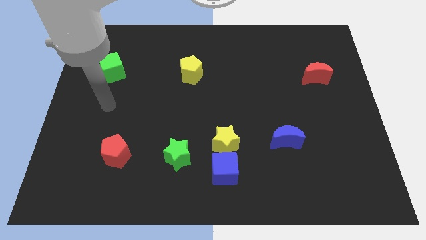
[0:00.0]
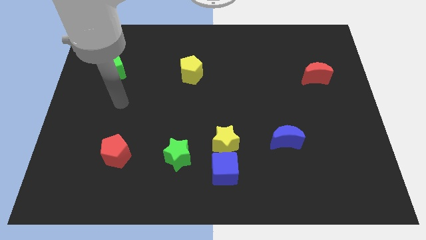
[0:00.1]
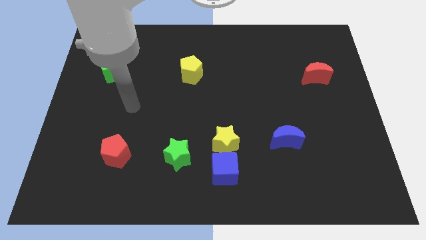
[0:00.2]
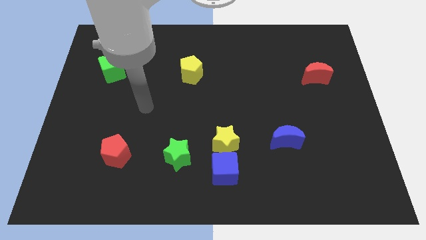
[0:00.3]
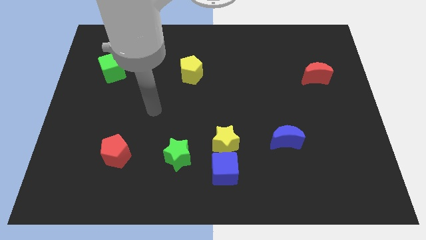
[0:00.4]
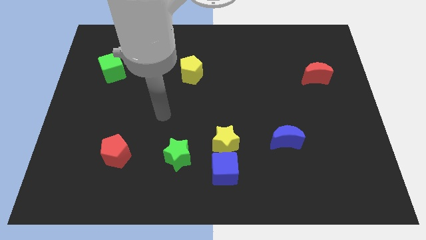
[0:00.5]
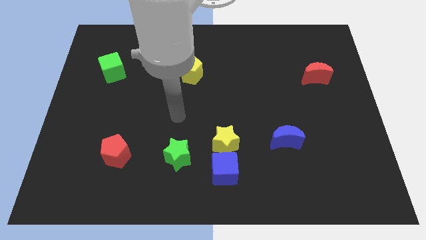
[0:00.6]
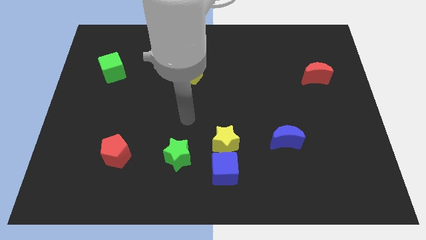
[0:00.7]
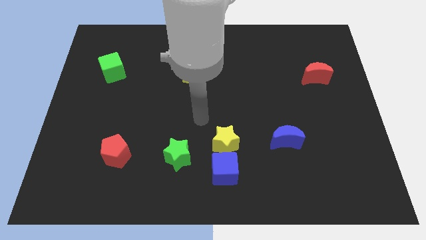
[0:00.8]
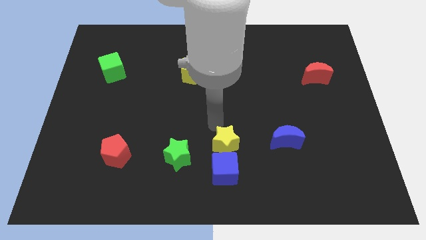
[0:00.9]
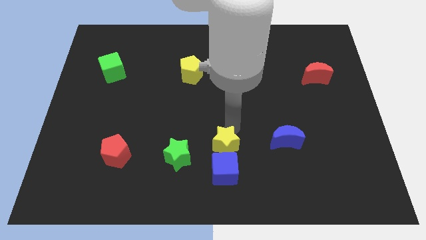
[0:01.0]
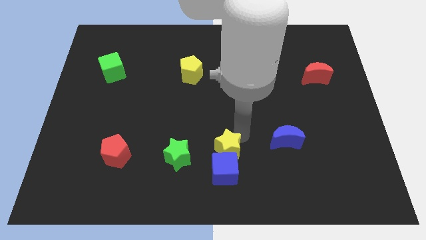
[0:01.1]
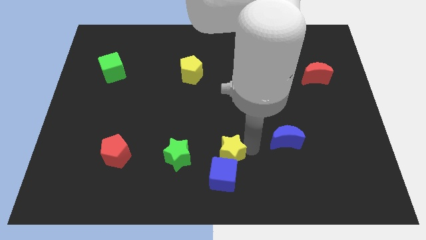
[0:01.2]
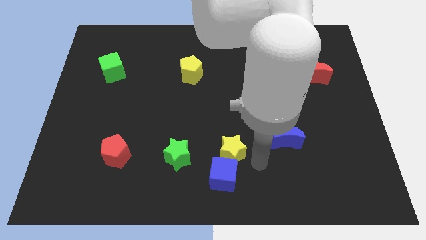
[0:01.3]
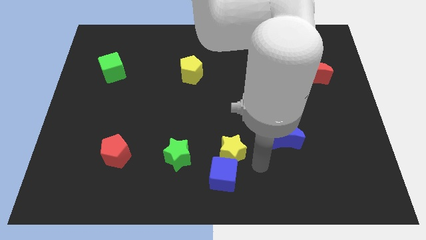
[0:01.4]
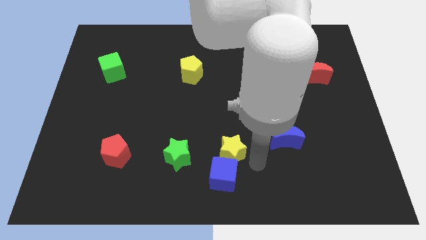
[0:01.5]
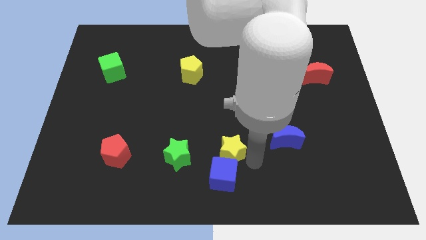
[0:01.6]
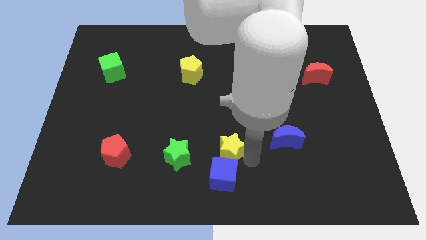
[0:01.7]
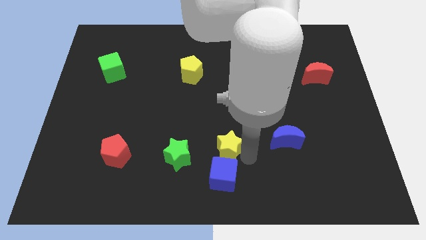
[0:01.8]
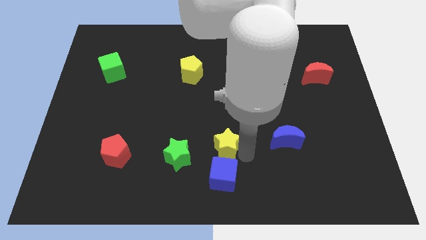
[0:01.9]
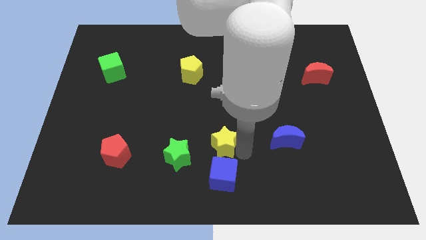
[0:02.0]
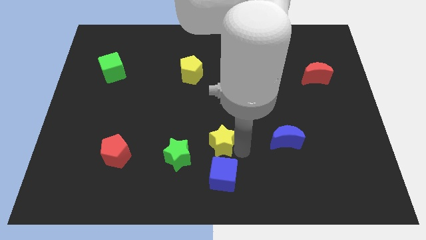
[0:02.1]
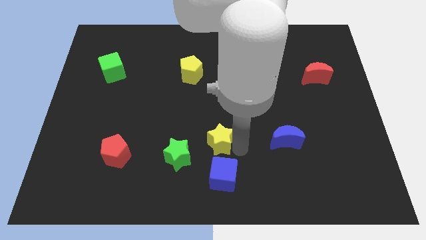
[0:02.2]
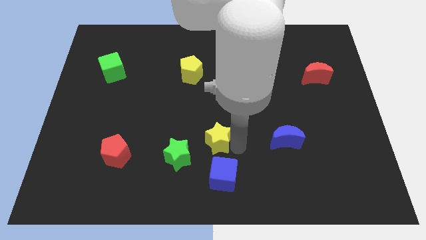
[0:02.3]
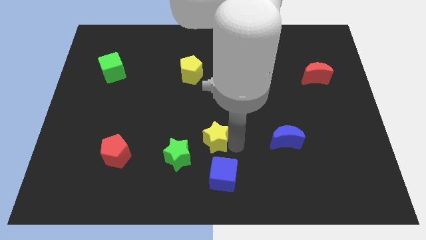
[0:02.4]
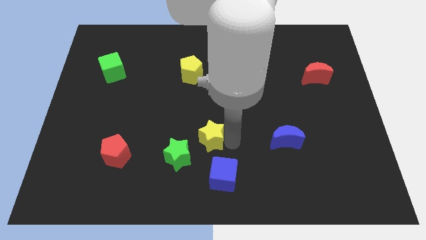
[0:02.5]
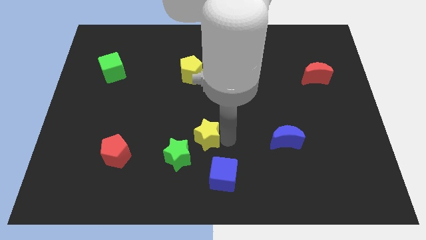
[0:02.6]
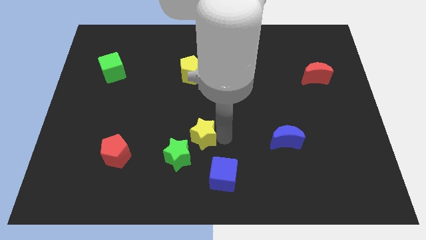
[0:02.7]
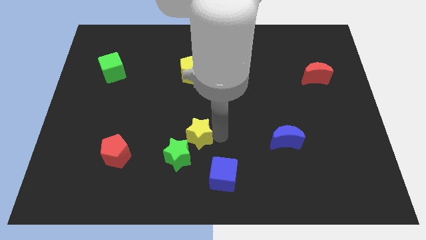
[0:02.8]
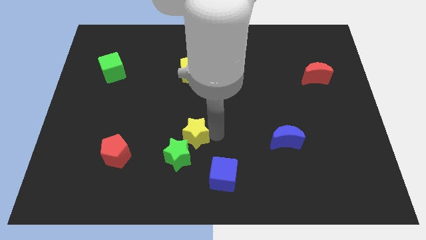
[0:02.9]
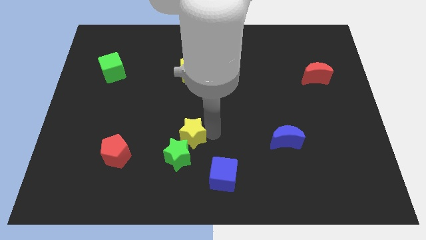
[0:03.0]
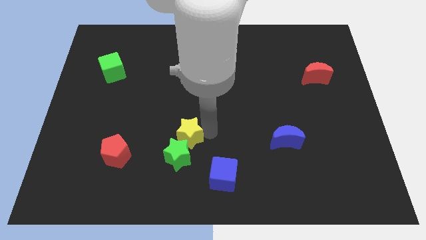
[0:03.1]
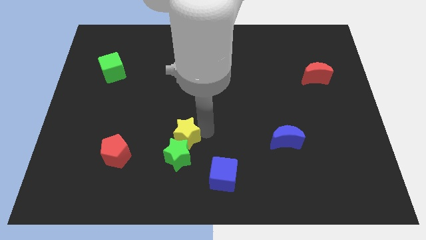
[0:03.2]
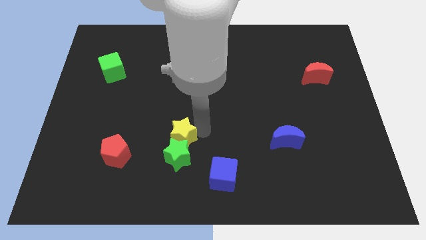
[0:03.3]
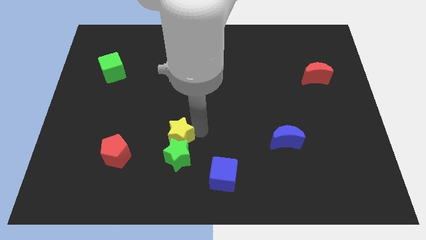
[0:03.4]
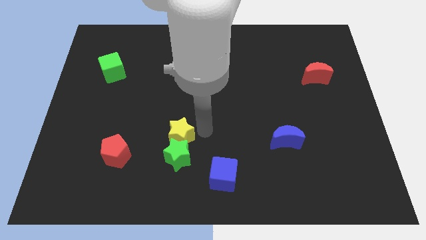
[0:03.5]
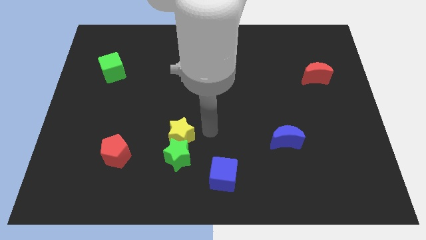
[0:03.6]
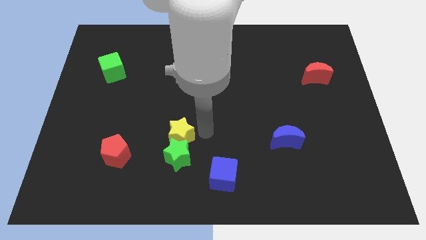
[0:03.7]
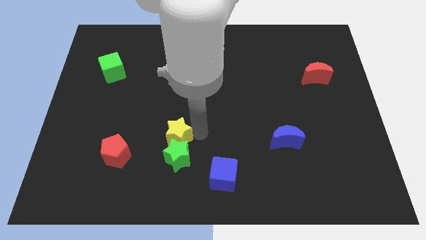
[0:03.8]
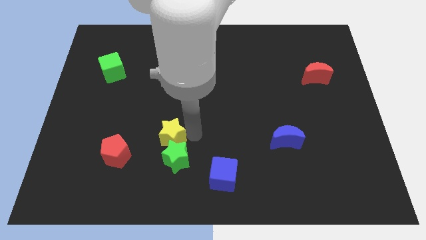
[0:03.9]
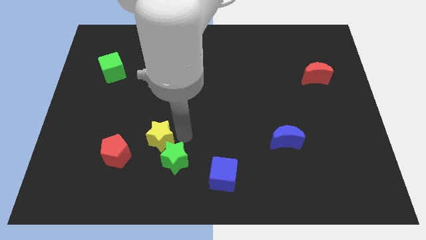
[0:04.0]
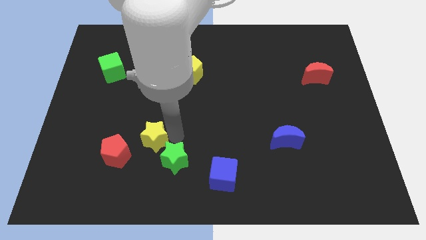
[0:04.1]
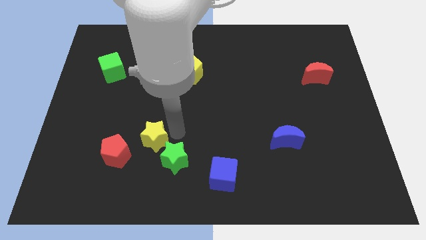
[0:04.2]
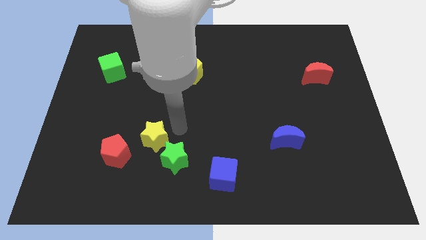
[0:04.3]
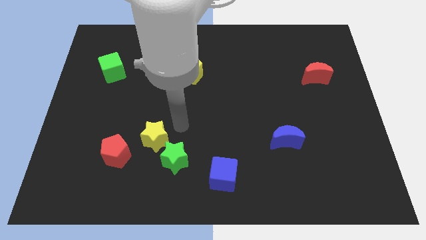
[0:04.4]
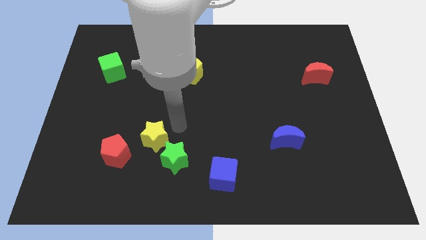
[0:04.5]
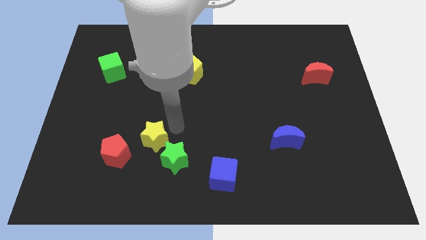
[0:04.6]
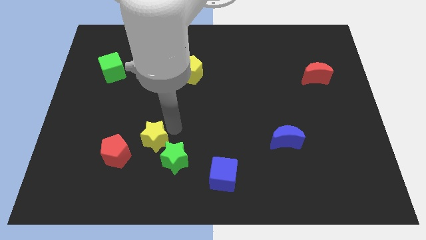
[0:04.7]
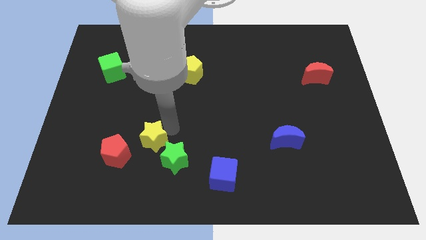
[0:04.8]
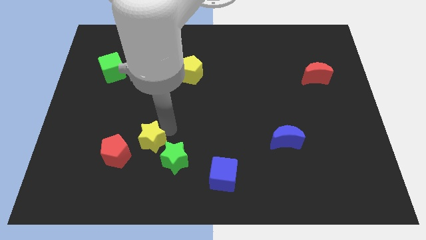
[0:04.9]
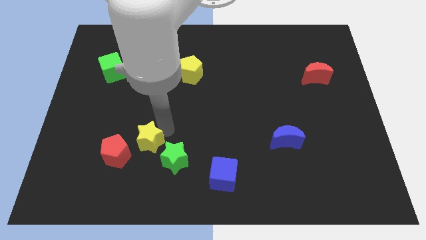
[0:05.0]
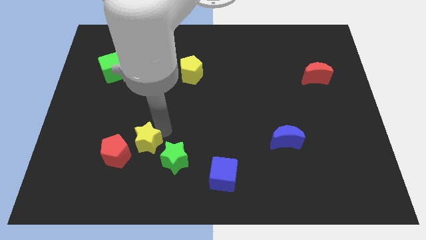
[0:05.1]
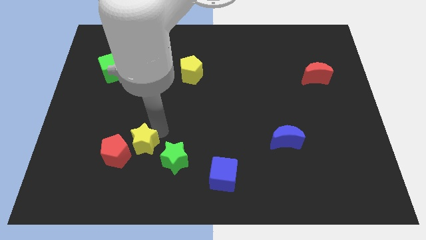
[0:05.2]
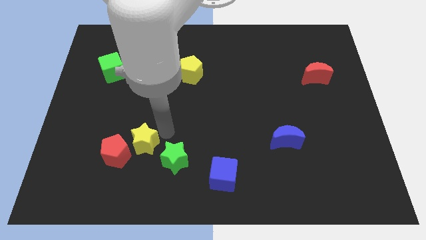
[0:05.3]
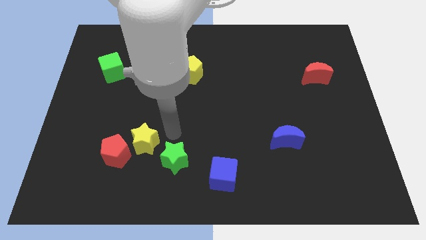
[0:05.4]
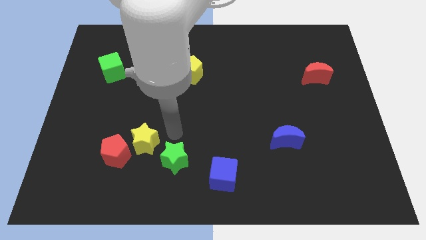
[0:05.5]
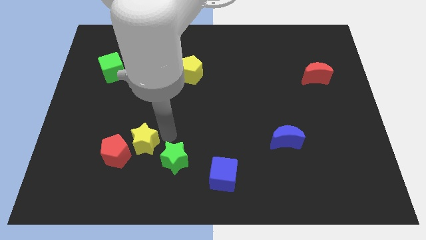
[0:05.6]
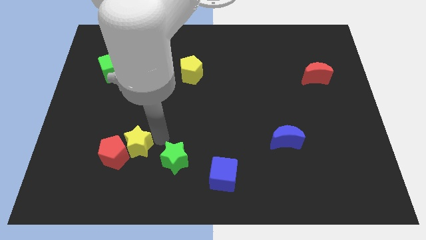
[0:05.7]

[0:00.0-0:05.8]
slide the yellow star next to the red pentagon

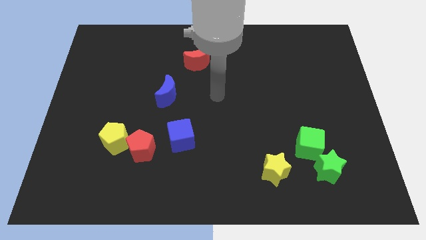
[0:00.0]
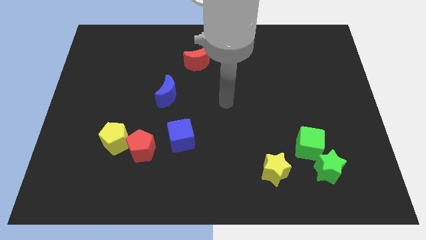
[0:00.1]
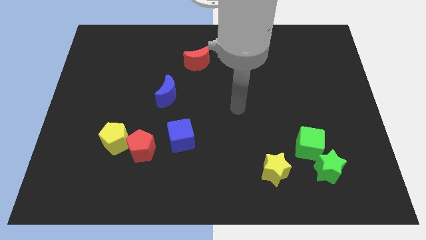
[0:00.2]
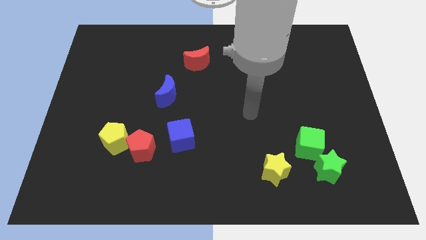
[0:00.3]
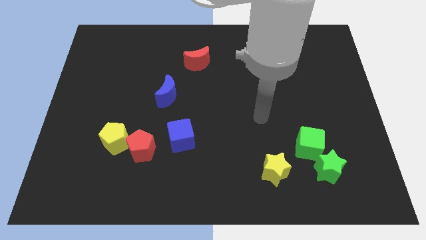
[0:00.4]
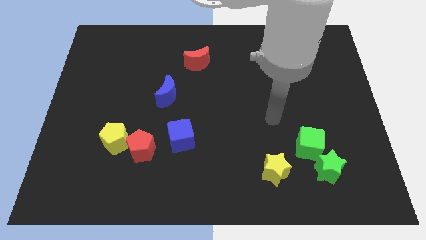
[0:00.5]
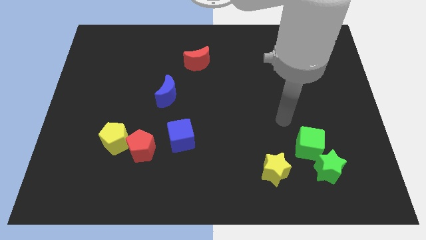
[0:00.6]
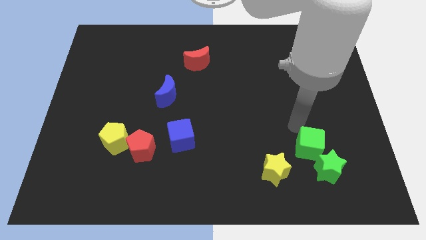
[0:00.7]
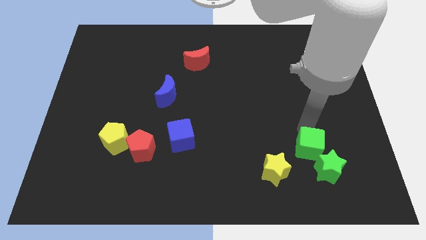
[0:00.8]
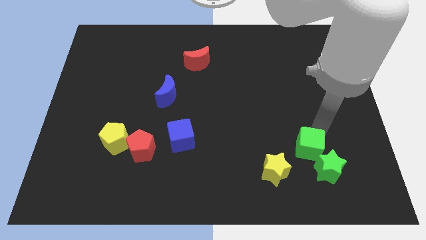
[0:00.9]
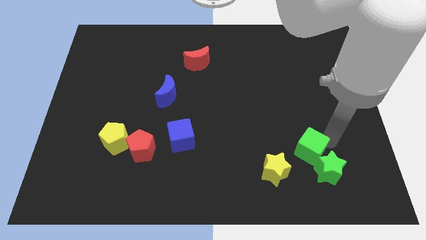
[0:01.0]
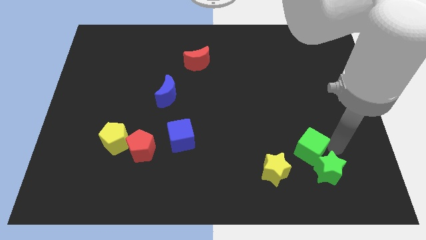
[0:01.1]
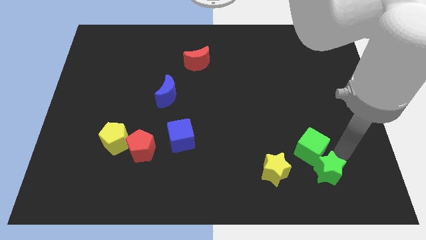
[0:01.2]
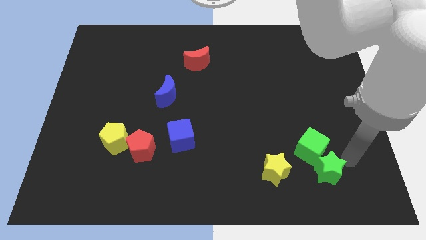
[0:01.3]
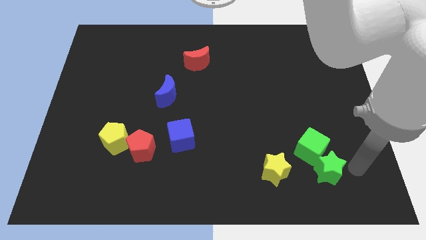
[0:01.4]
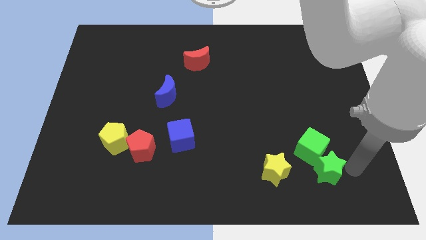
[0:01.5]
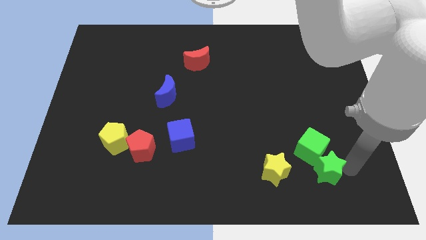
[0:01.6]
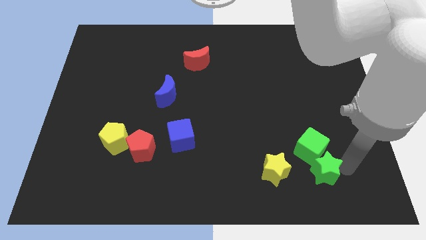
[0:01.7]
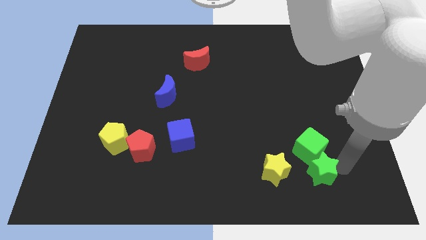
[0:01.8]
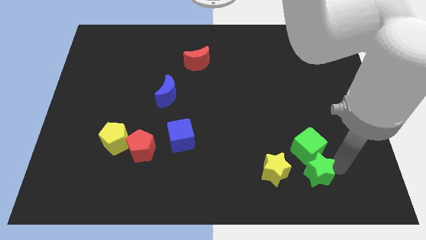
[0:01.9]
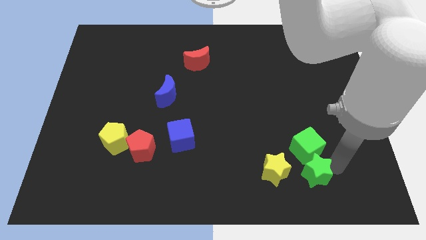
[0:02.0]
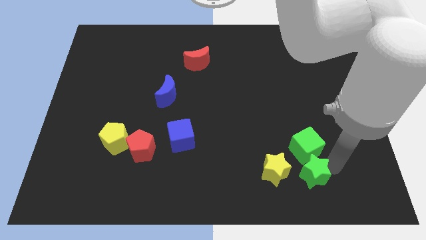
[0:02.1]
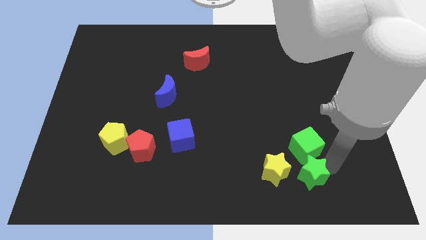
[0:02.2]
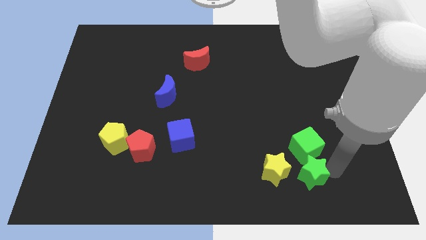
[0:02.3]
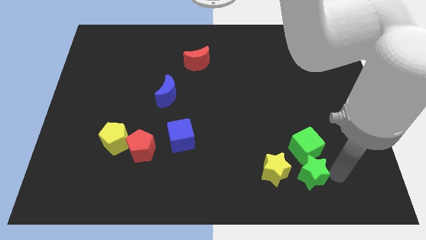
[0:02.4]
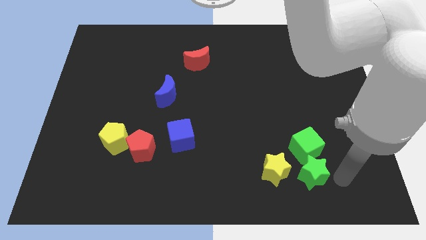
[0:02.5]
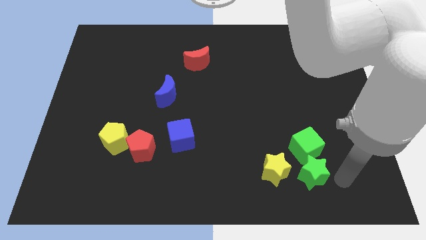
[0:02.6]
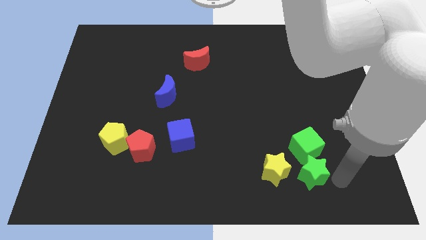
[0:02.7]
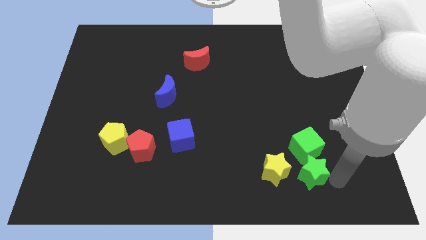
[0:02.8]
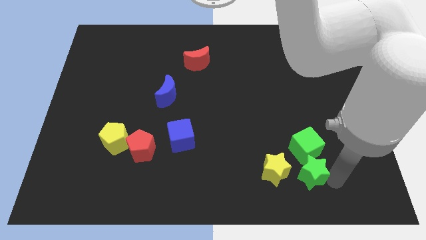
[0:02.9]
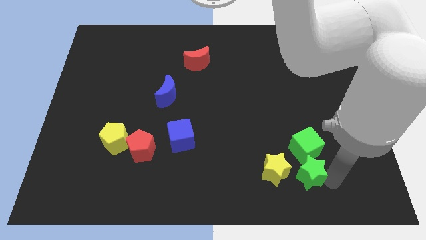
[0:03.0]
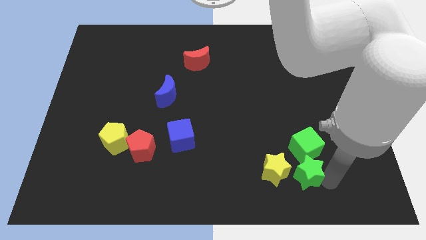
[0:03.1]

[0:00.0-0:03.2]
push the green star close to the yellow star
